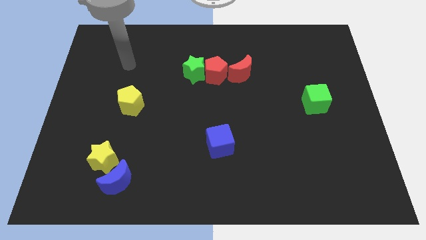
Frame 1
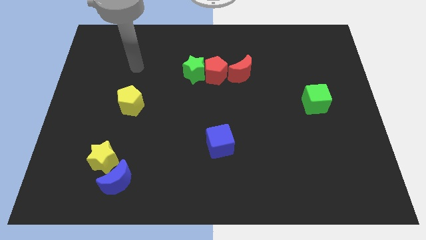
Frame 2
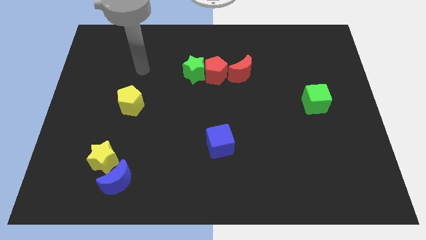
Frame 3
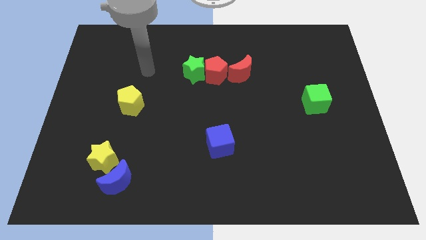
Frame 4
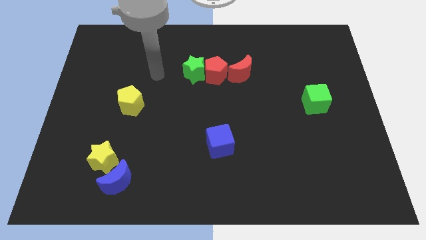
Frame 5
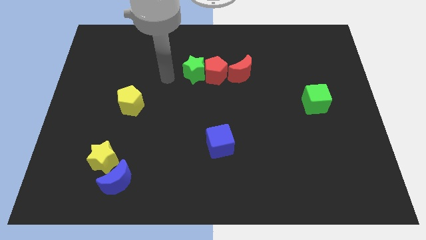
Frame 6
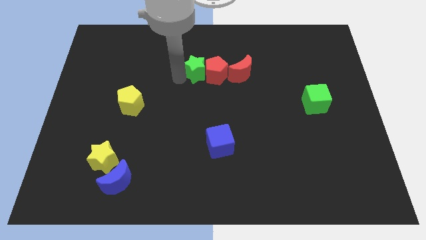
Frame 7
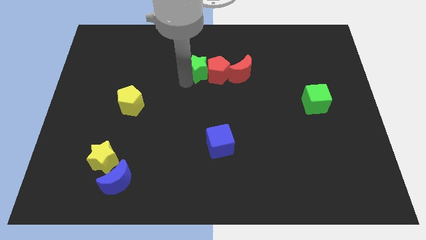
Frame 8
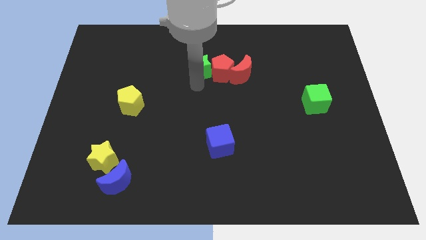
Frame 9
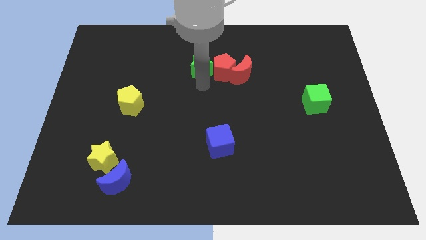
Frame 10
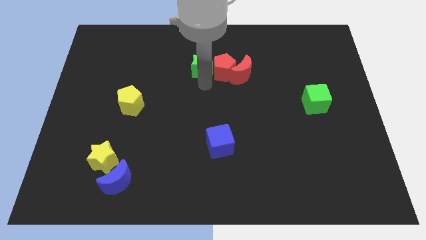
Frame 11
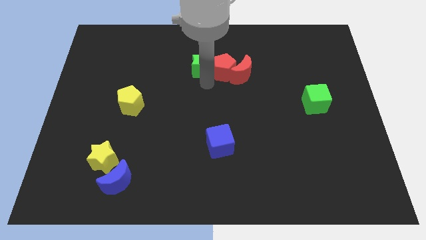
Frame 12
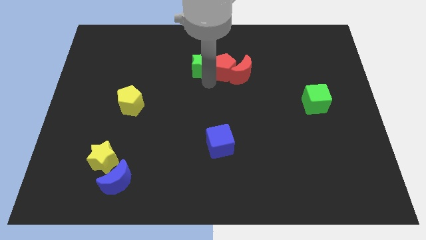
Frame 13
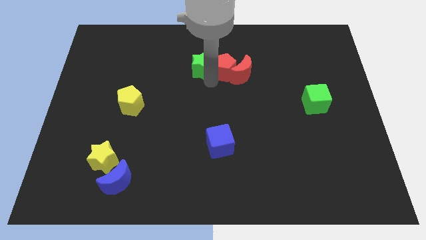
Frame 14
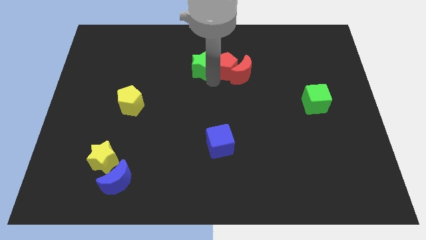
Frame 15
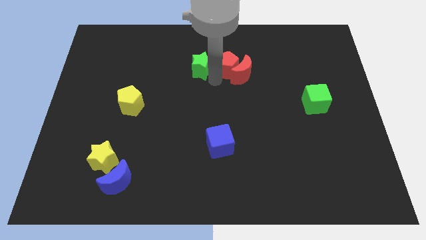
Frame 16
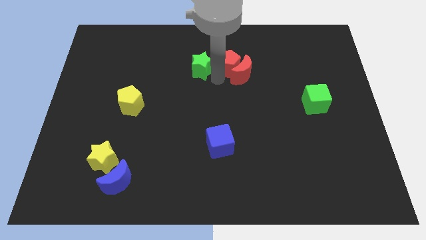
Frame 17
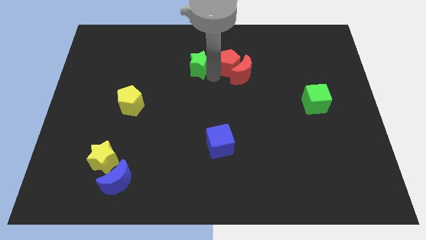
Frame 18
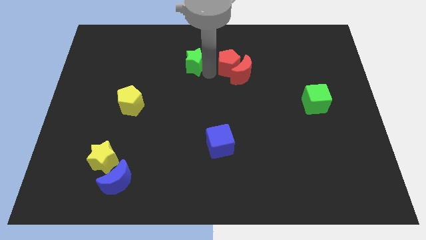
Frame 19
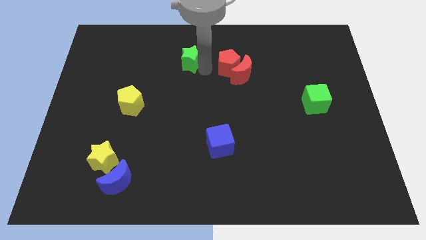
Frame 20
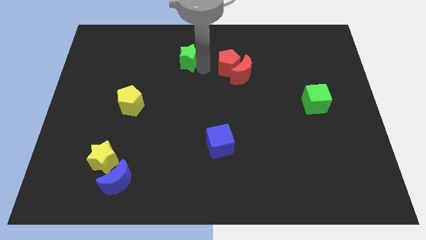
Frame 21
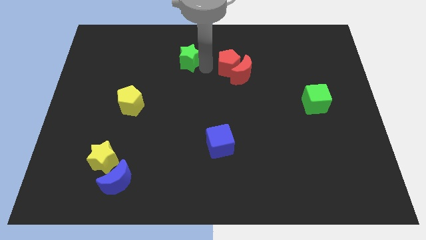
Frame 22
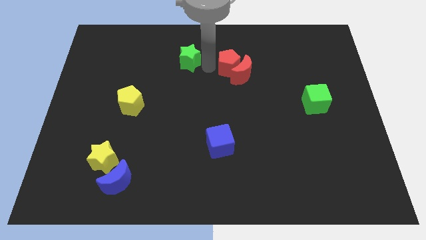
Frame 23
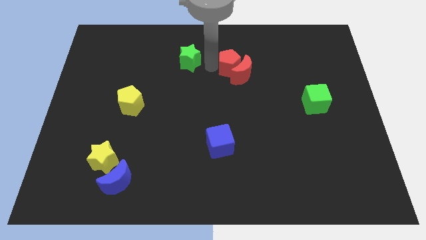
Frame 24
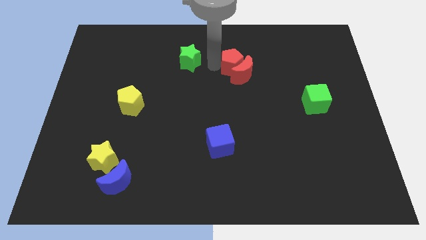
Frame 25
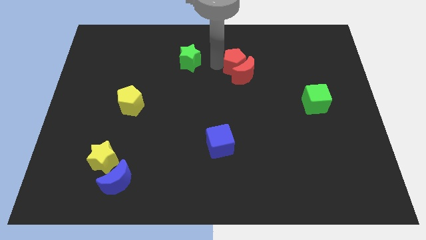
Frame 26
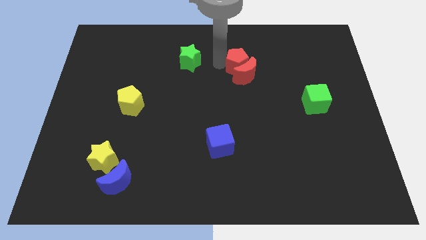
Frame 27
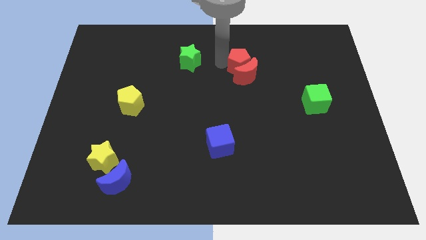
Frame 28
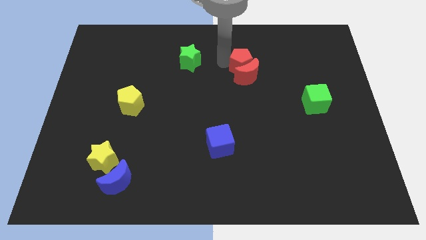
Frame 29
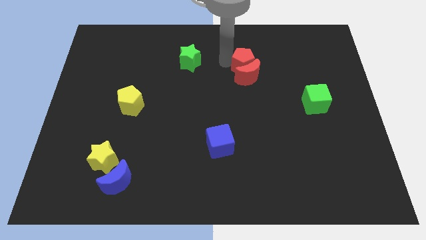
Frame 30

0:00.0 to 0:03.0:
move the red pentagon somewhat to the right

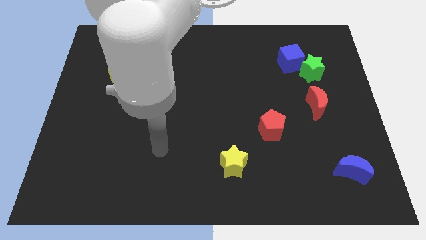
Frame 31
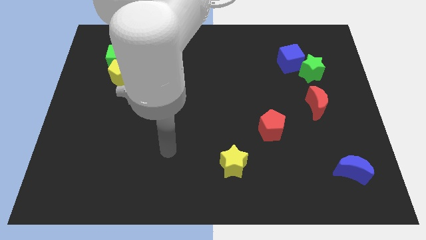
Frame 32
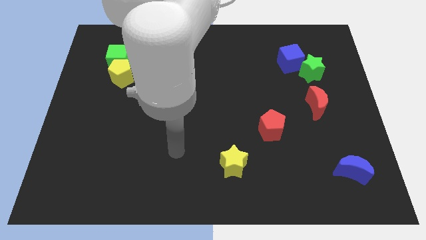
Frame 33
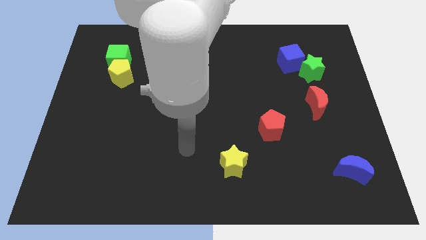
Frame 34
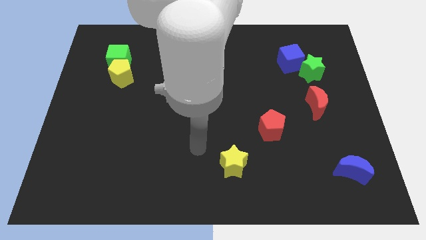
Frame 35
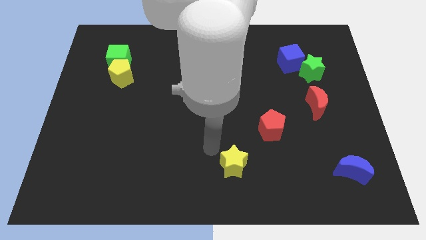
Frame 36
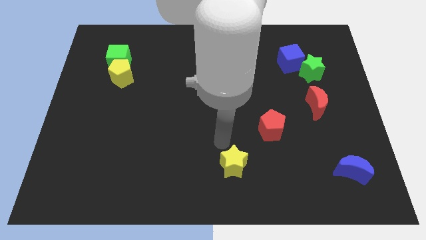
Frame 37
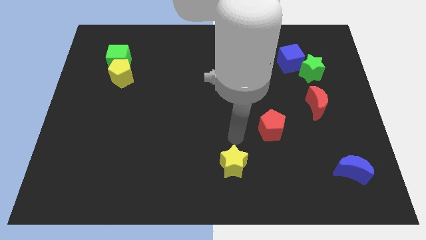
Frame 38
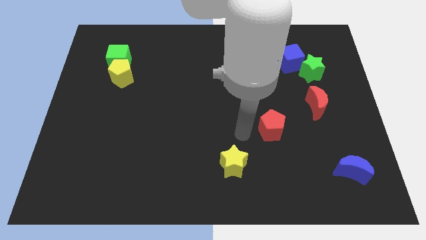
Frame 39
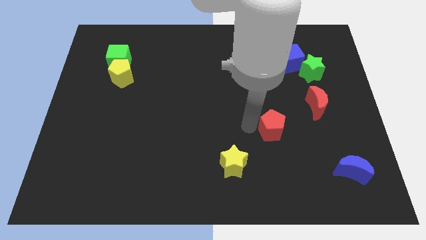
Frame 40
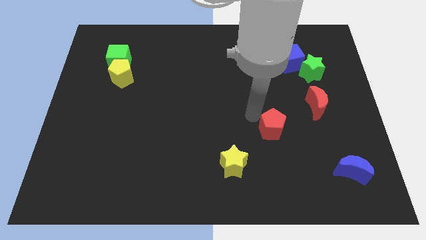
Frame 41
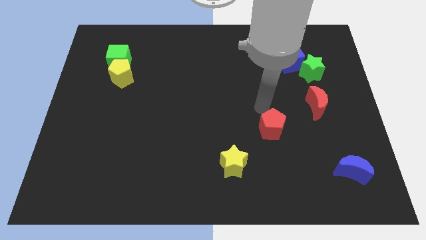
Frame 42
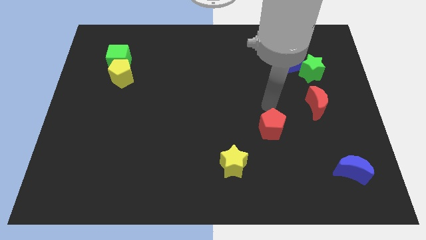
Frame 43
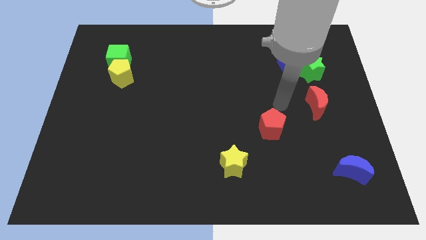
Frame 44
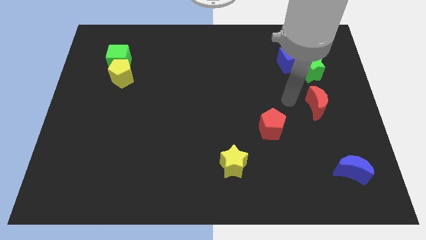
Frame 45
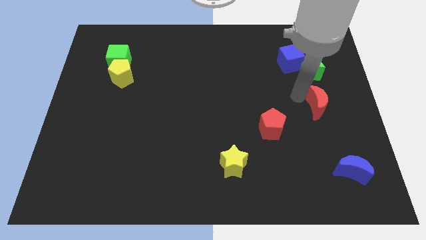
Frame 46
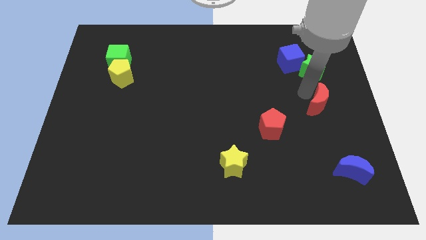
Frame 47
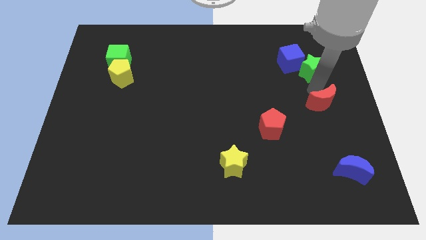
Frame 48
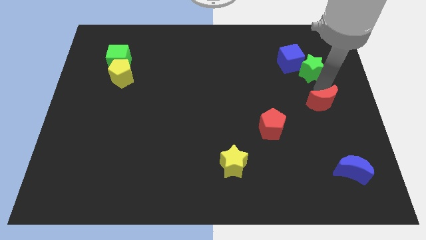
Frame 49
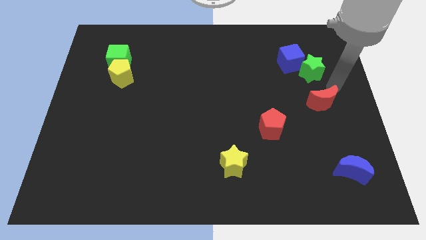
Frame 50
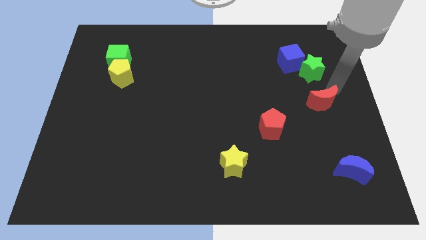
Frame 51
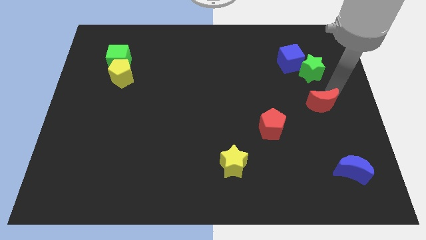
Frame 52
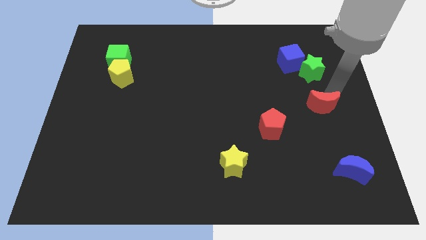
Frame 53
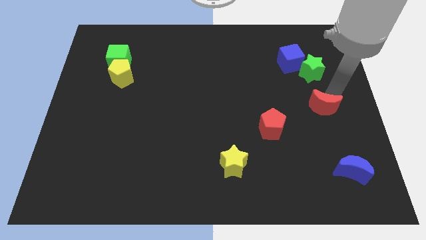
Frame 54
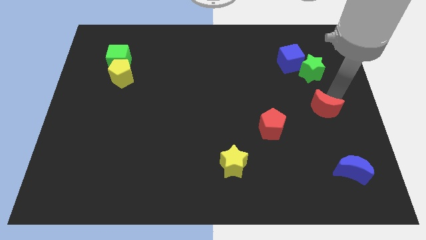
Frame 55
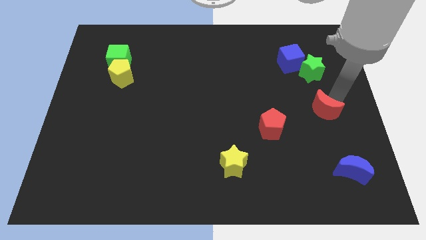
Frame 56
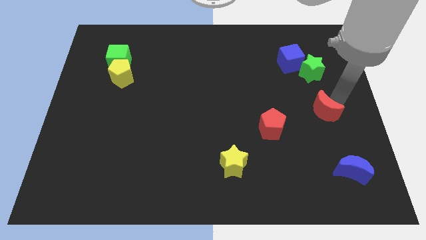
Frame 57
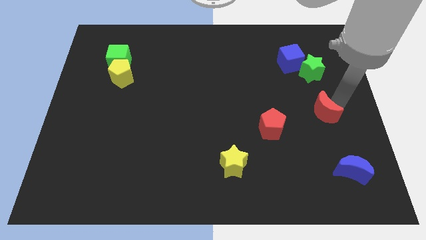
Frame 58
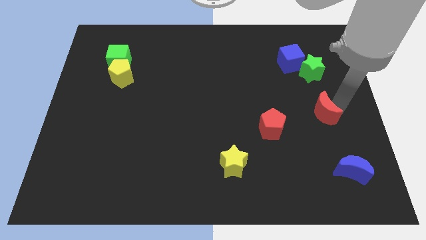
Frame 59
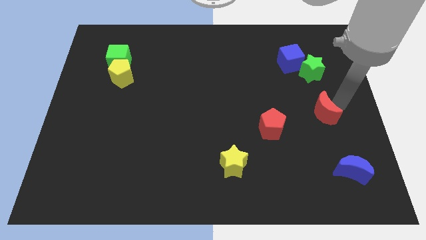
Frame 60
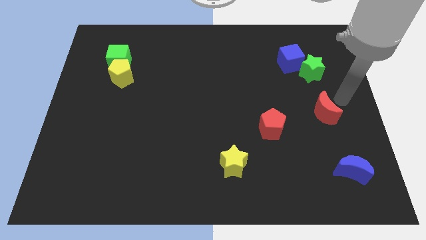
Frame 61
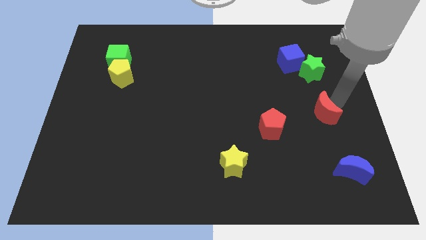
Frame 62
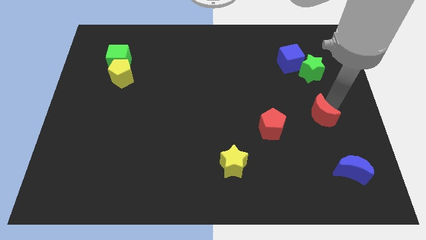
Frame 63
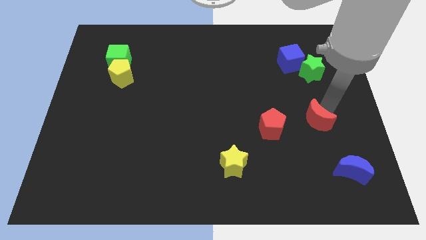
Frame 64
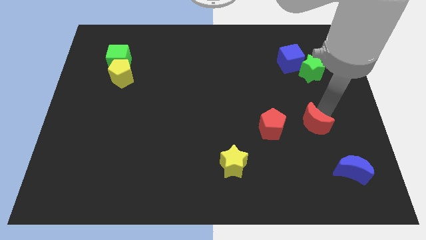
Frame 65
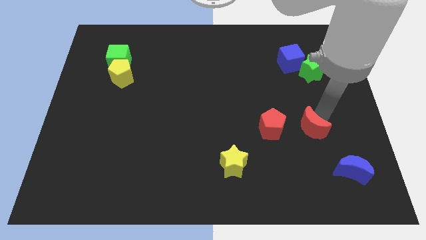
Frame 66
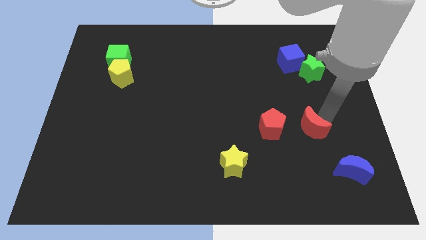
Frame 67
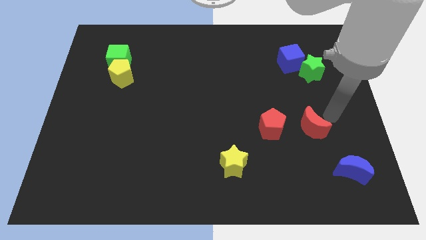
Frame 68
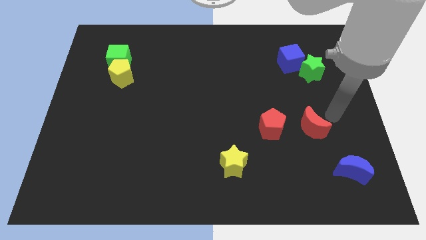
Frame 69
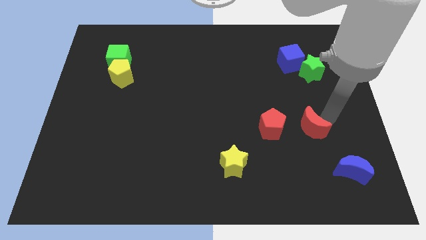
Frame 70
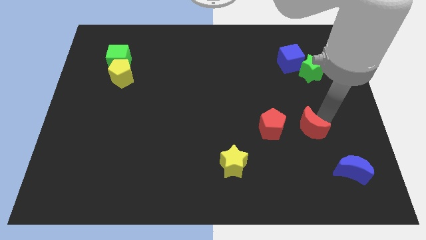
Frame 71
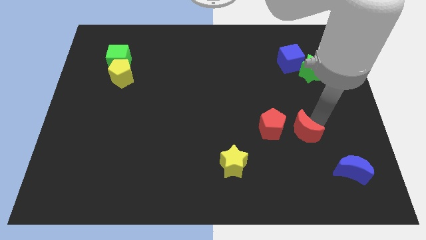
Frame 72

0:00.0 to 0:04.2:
slide the red moon diagonally downwards and to the left somewhat

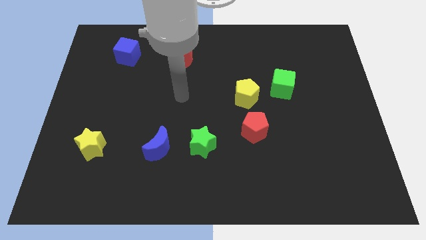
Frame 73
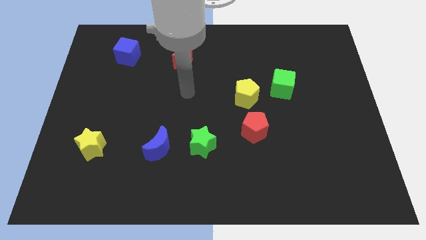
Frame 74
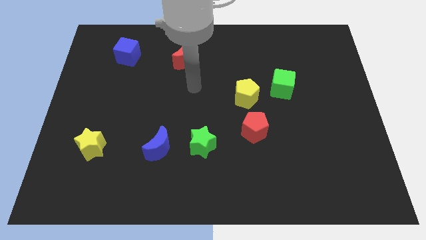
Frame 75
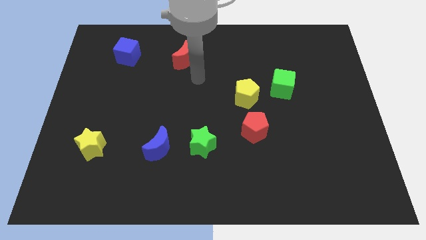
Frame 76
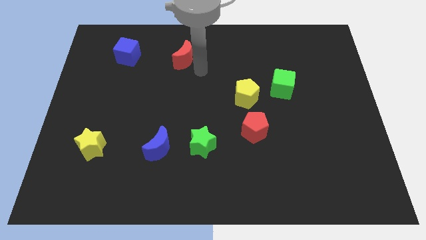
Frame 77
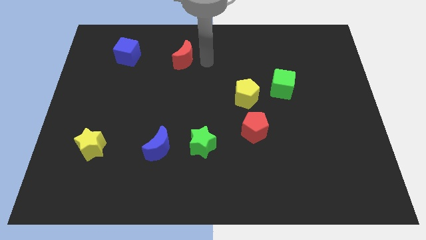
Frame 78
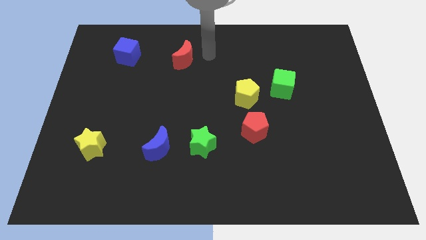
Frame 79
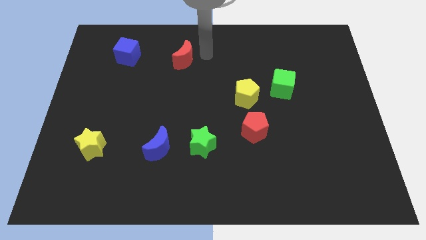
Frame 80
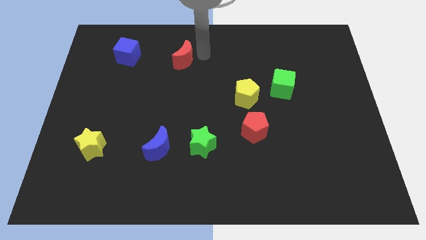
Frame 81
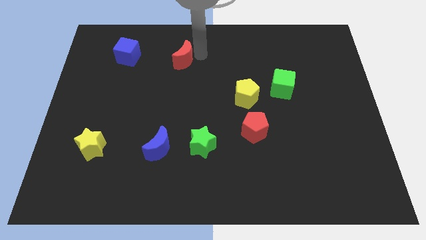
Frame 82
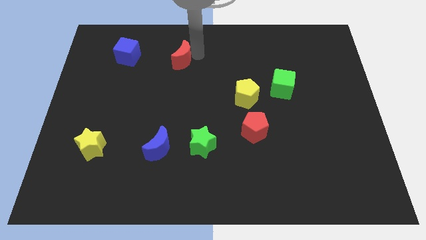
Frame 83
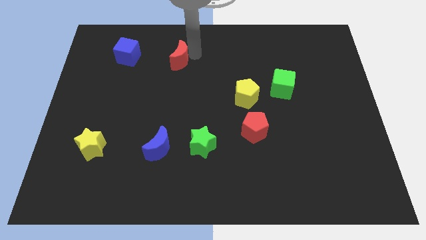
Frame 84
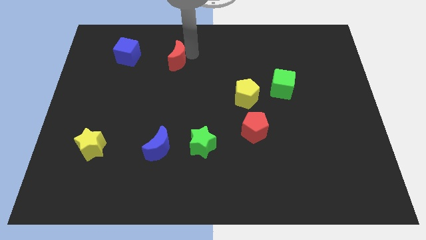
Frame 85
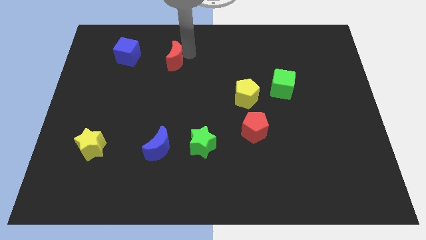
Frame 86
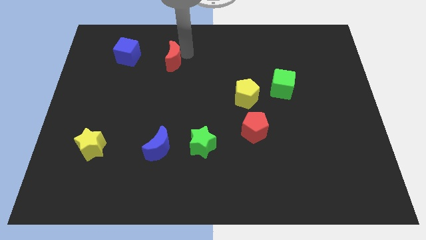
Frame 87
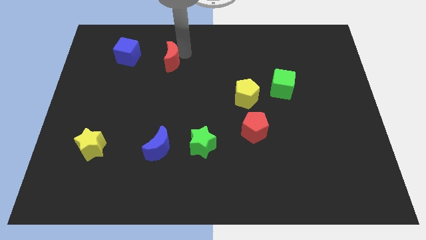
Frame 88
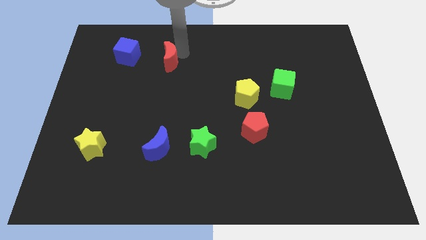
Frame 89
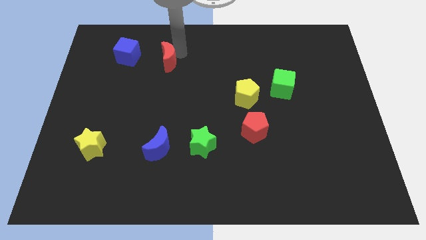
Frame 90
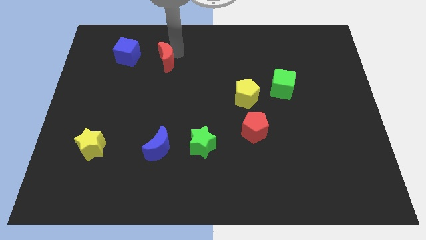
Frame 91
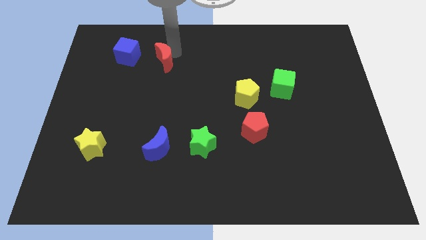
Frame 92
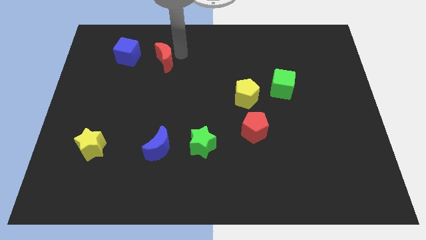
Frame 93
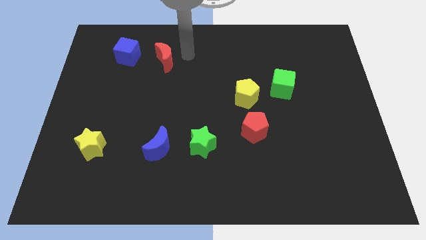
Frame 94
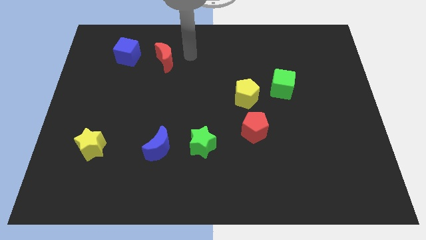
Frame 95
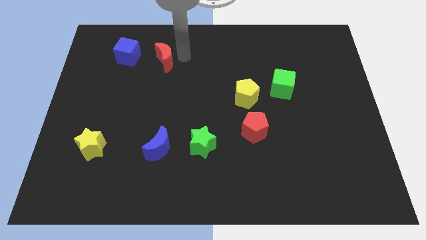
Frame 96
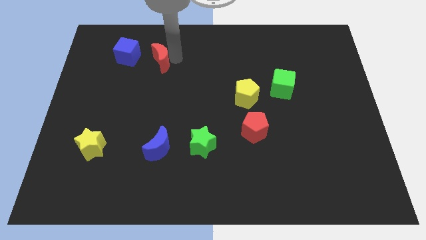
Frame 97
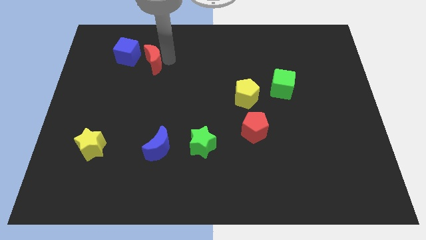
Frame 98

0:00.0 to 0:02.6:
slide the red moon left a little bit
